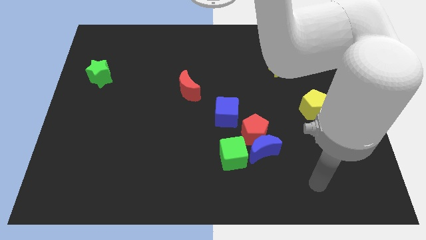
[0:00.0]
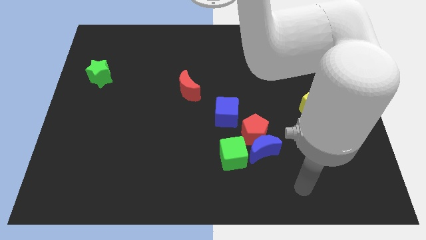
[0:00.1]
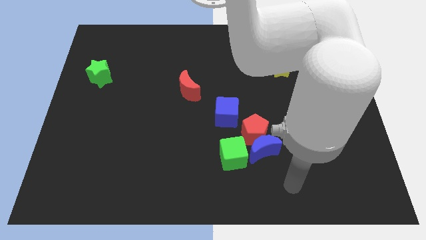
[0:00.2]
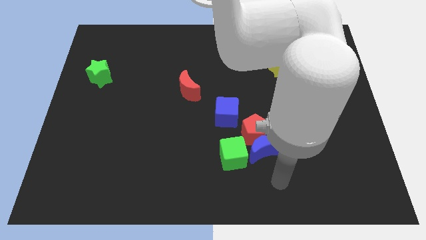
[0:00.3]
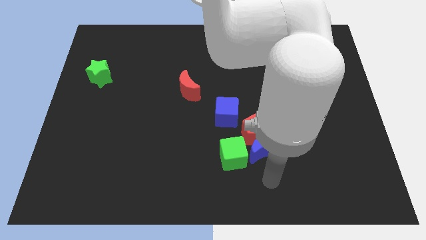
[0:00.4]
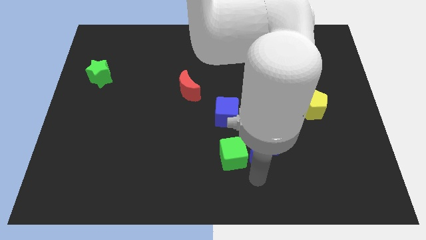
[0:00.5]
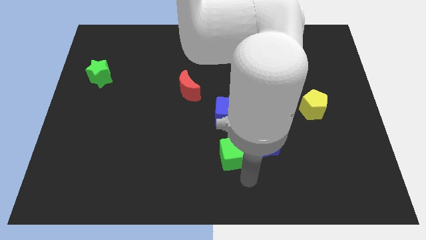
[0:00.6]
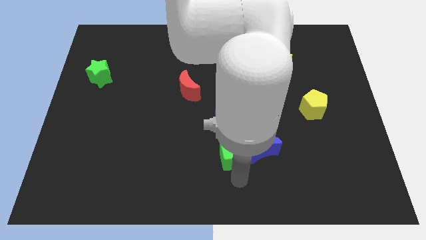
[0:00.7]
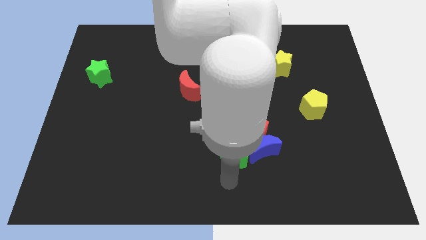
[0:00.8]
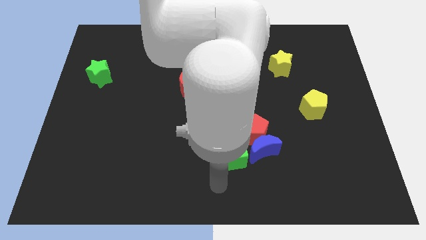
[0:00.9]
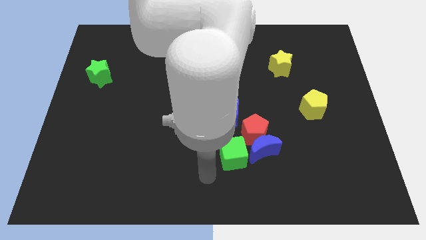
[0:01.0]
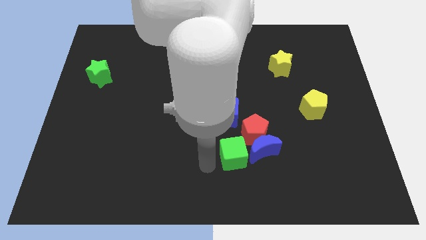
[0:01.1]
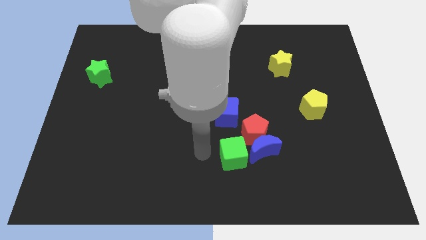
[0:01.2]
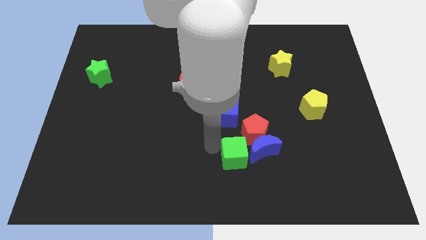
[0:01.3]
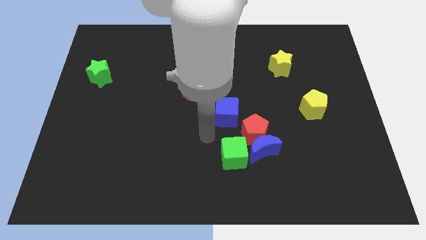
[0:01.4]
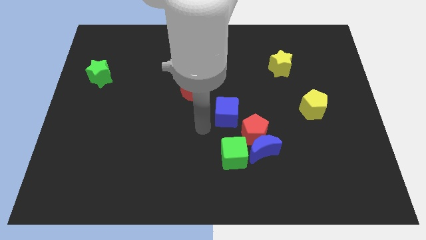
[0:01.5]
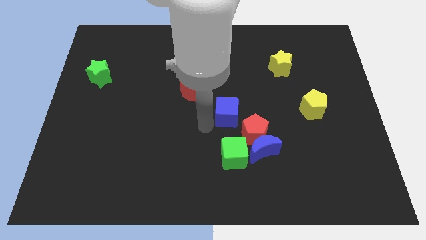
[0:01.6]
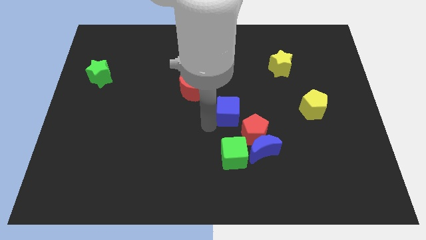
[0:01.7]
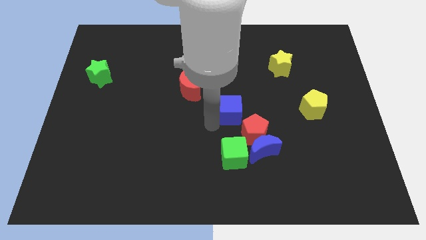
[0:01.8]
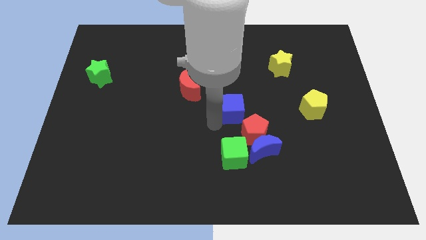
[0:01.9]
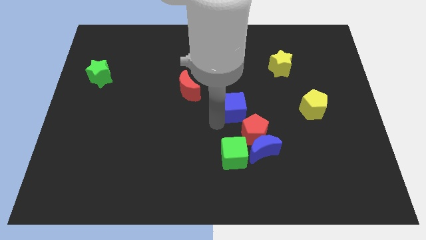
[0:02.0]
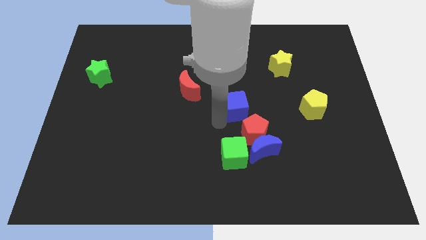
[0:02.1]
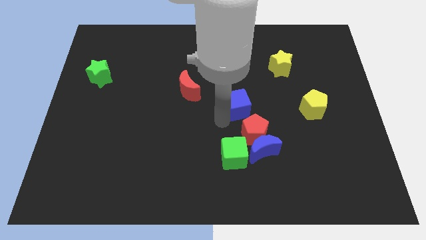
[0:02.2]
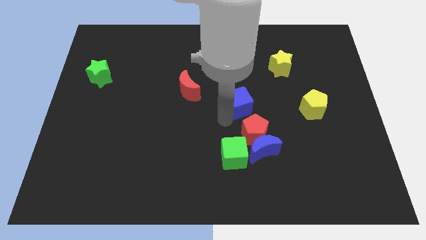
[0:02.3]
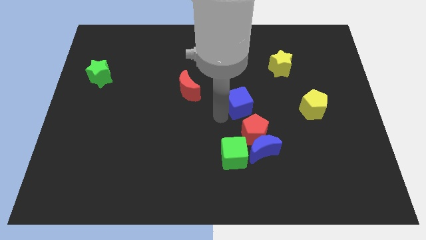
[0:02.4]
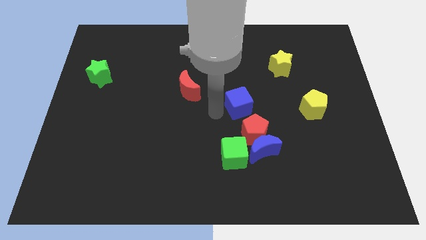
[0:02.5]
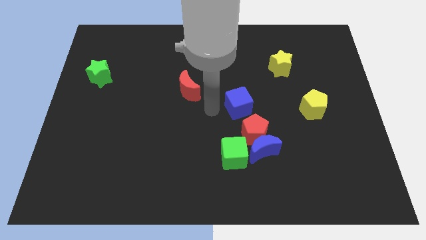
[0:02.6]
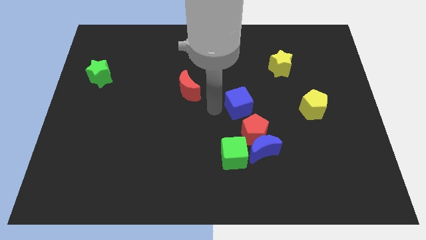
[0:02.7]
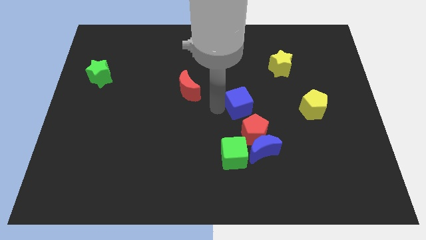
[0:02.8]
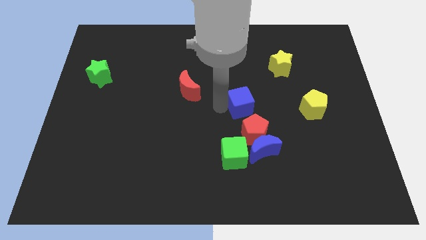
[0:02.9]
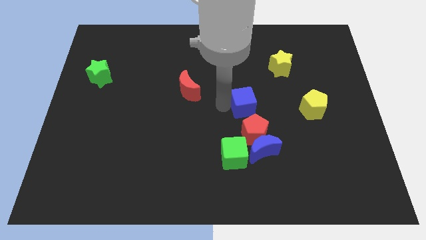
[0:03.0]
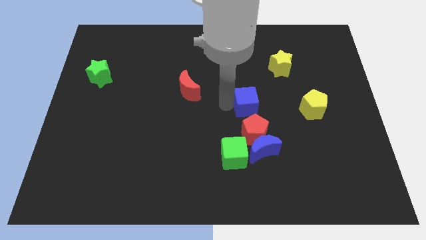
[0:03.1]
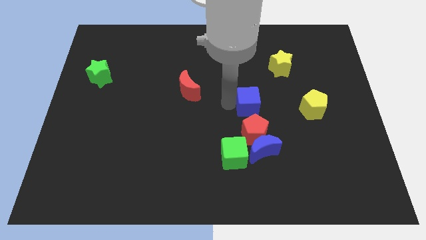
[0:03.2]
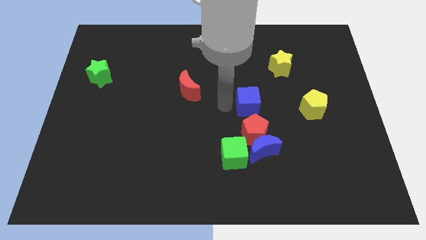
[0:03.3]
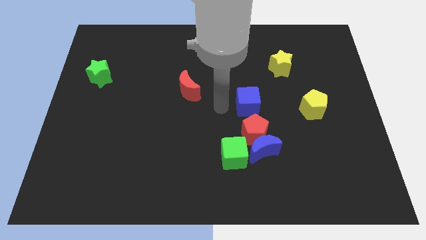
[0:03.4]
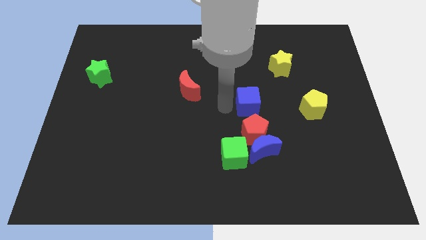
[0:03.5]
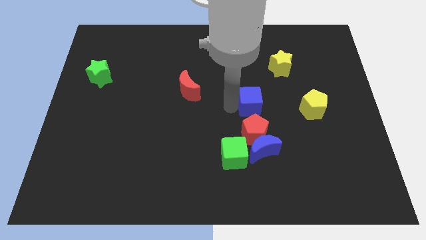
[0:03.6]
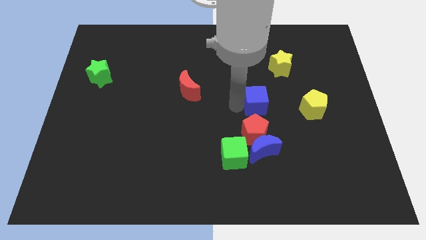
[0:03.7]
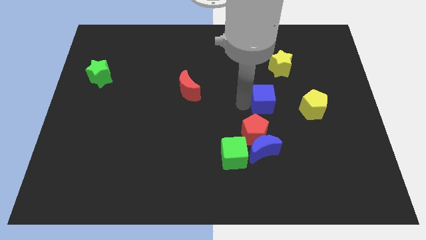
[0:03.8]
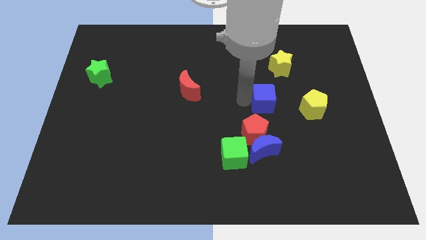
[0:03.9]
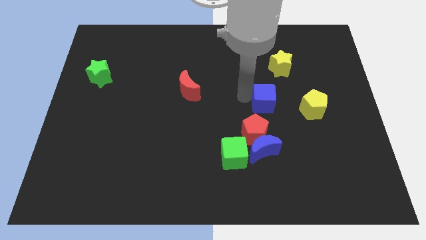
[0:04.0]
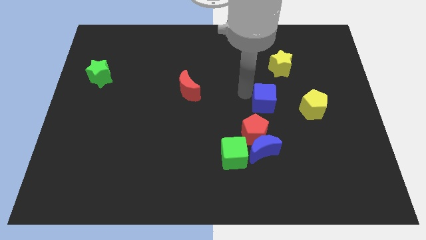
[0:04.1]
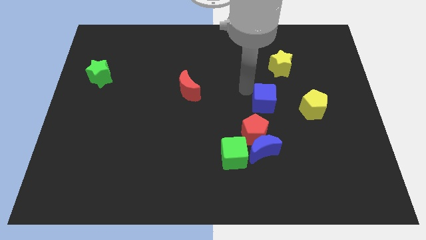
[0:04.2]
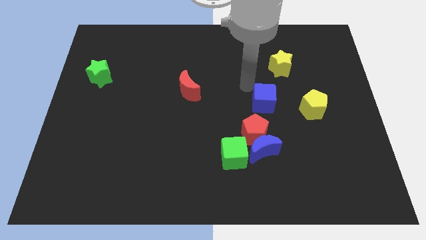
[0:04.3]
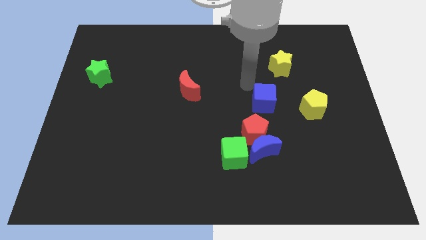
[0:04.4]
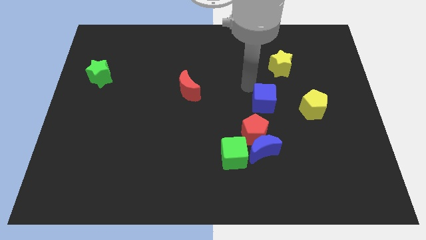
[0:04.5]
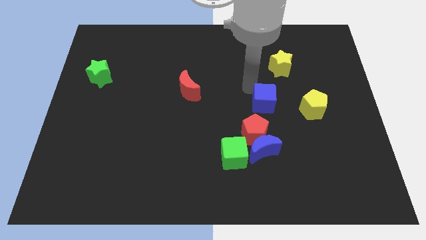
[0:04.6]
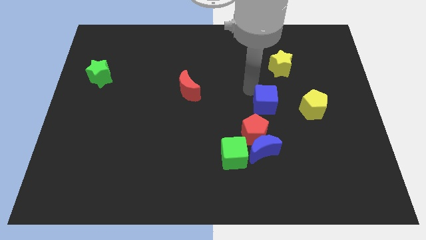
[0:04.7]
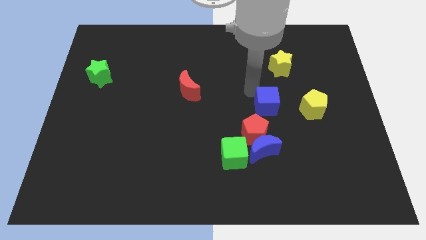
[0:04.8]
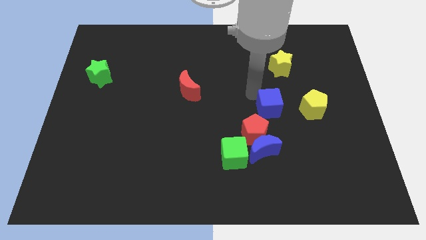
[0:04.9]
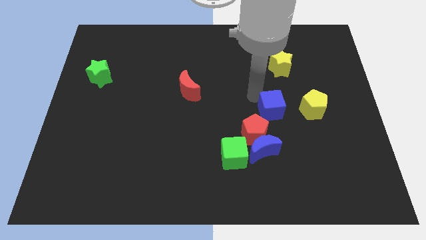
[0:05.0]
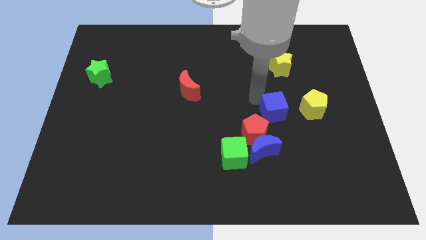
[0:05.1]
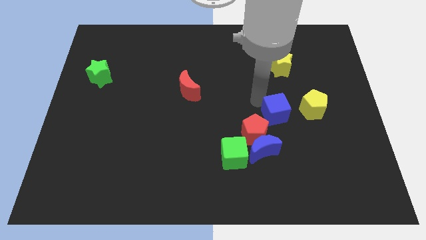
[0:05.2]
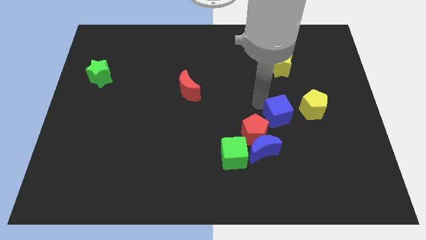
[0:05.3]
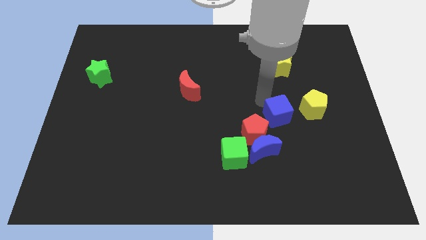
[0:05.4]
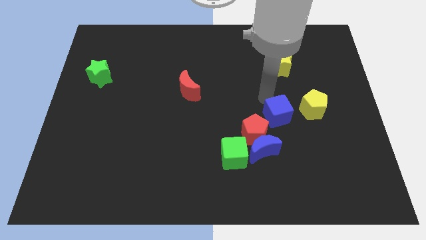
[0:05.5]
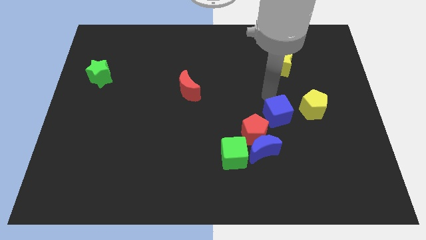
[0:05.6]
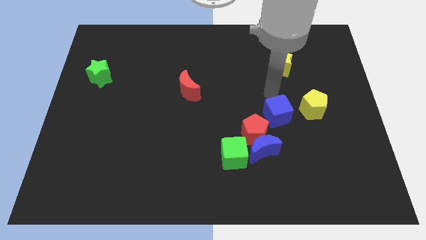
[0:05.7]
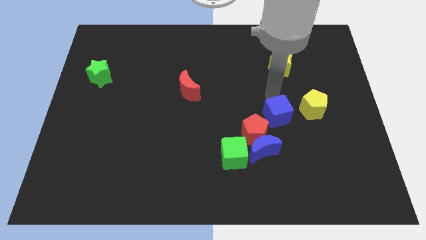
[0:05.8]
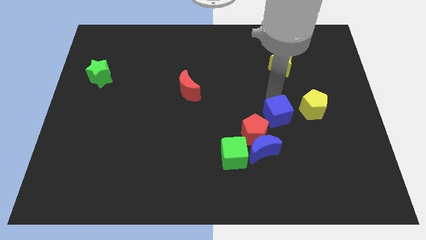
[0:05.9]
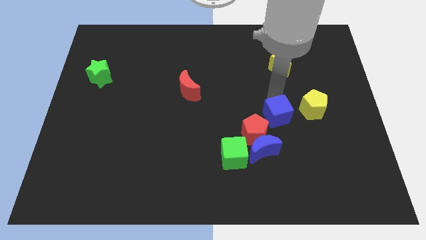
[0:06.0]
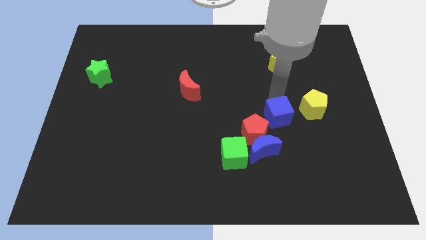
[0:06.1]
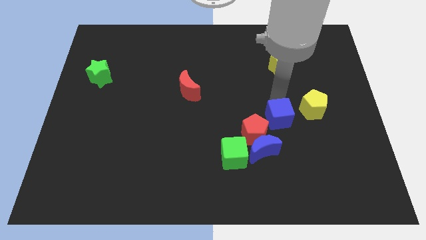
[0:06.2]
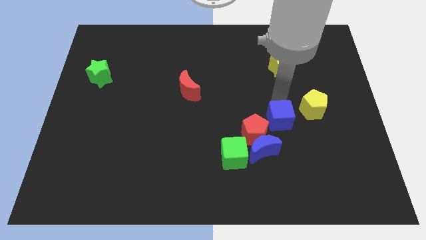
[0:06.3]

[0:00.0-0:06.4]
move the blue cube somewhat down and then to the right

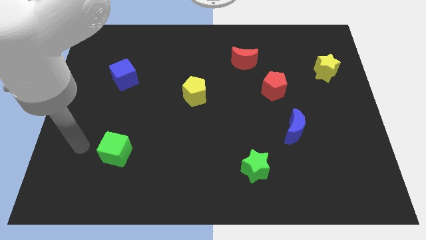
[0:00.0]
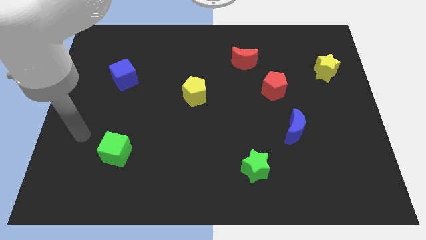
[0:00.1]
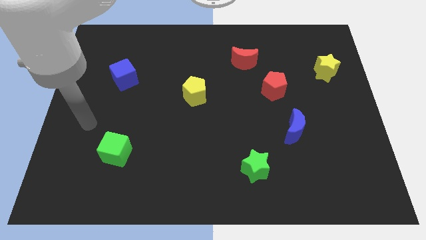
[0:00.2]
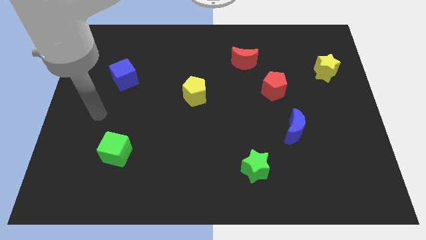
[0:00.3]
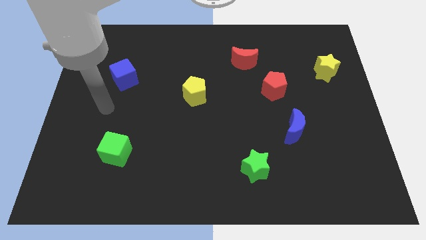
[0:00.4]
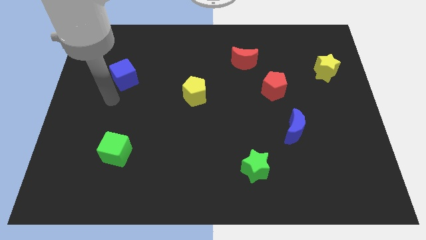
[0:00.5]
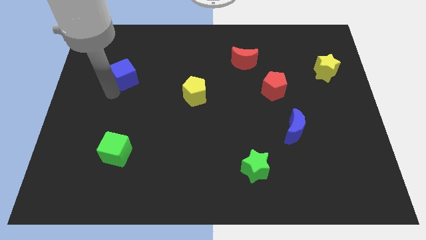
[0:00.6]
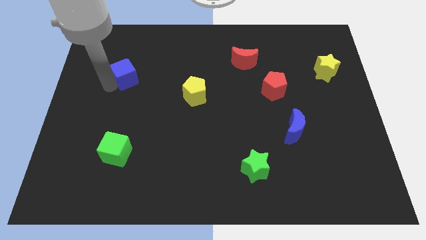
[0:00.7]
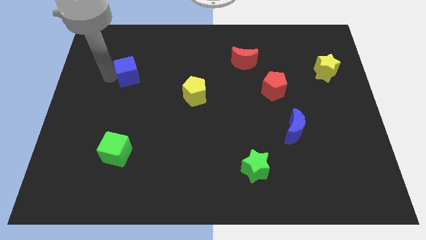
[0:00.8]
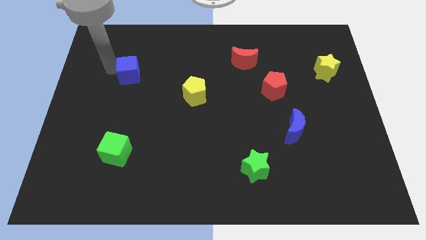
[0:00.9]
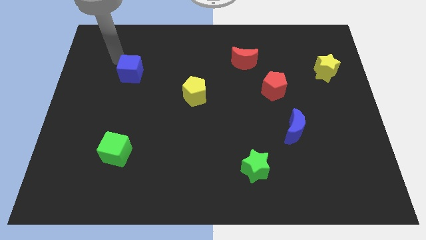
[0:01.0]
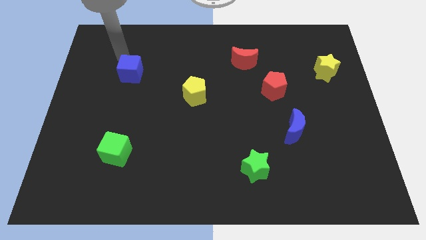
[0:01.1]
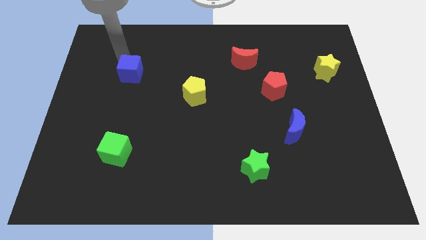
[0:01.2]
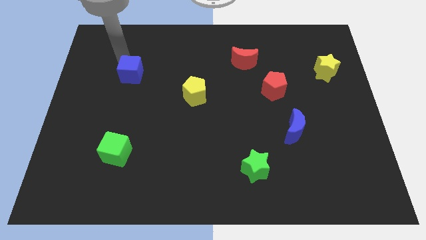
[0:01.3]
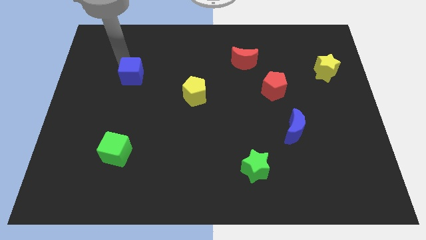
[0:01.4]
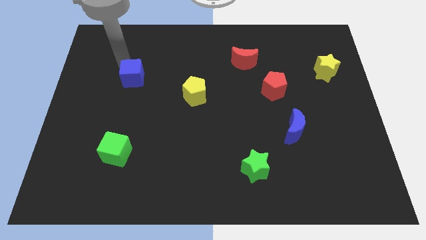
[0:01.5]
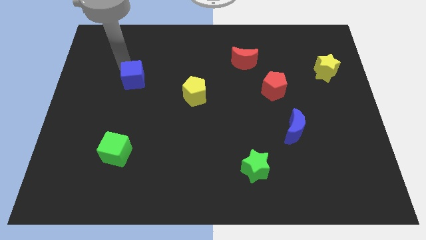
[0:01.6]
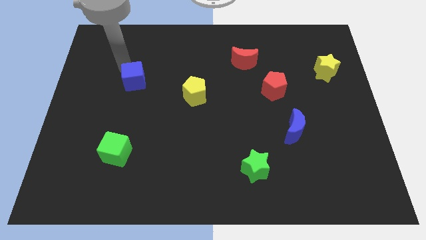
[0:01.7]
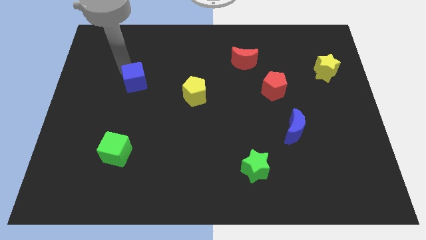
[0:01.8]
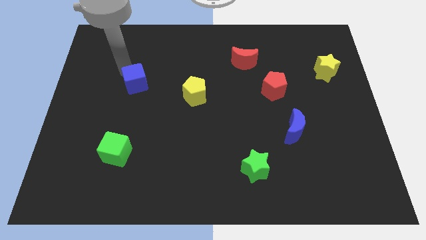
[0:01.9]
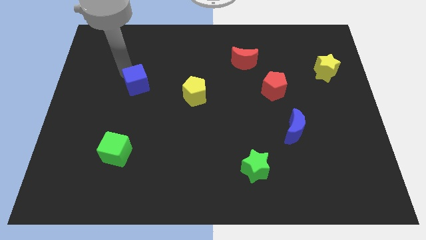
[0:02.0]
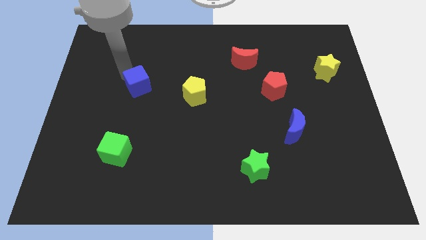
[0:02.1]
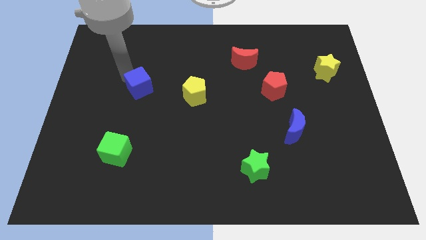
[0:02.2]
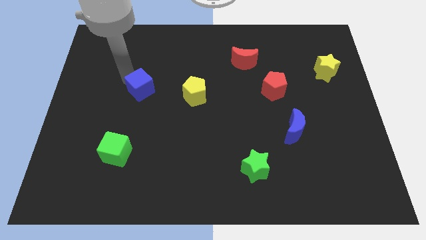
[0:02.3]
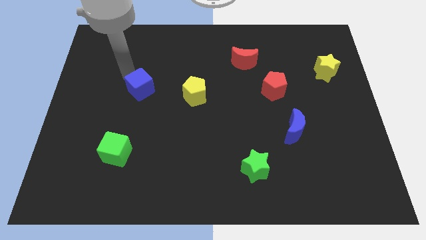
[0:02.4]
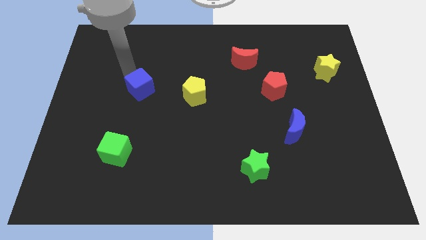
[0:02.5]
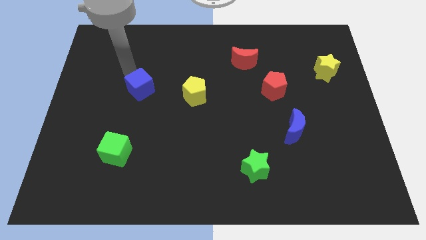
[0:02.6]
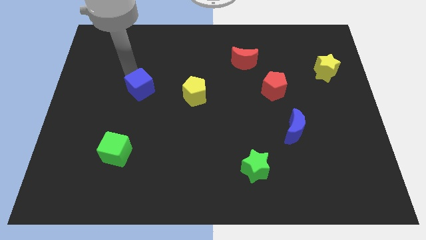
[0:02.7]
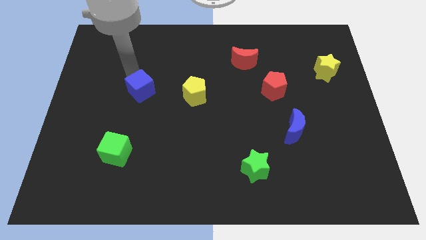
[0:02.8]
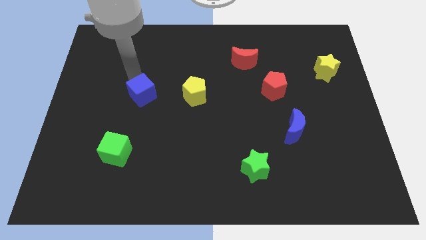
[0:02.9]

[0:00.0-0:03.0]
slightly push the blue cube downwards and then right
